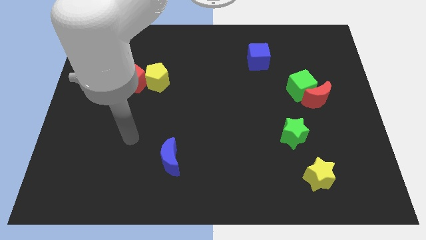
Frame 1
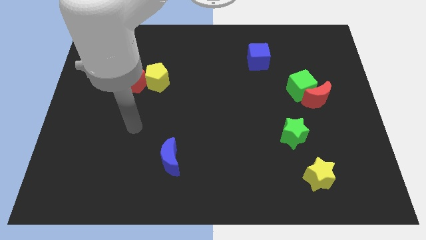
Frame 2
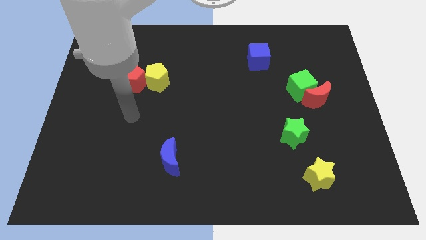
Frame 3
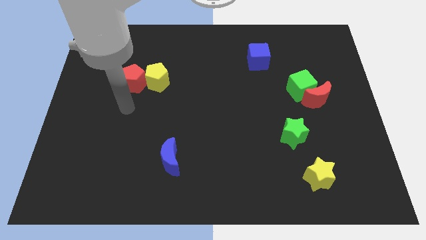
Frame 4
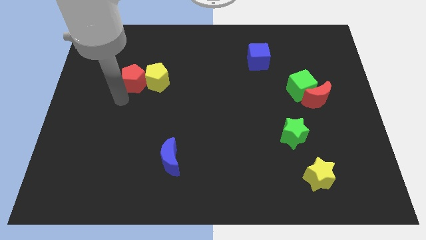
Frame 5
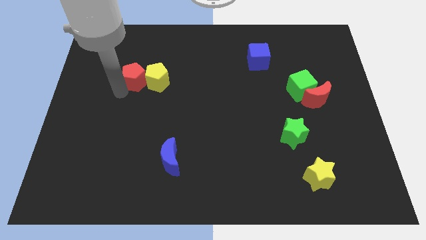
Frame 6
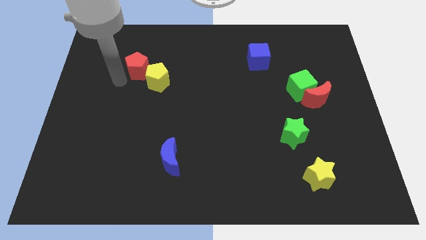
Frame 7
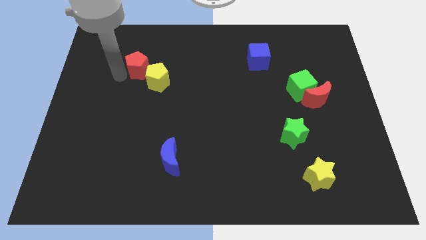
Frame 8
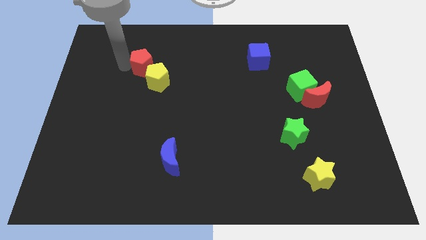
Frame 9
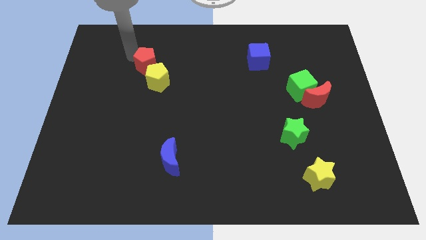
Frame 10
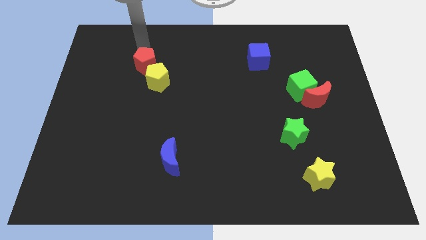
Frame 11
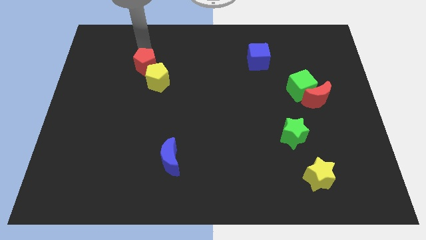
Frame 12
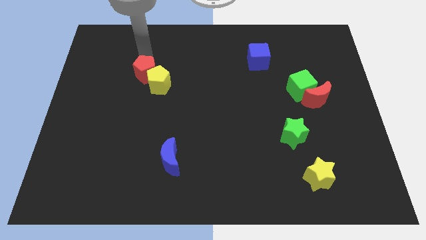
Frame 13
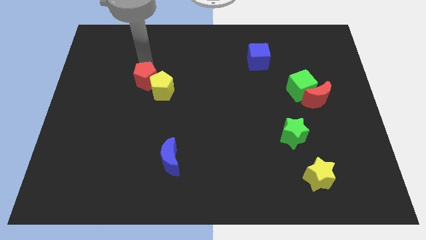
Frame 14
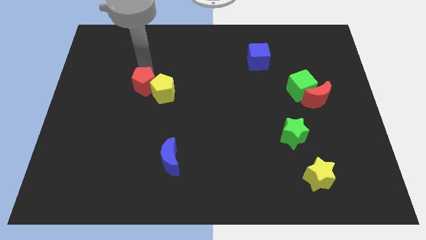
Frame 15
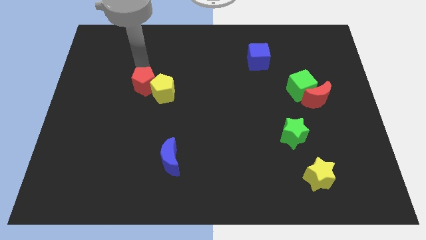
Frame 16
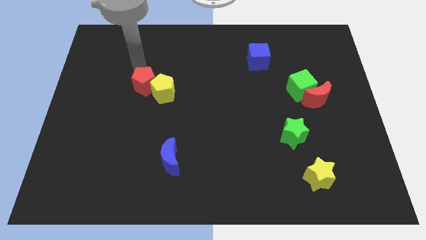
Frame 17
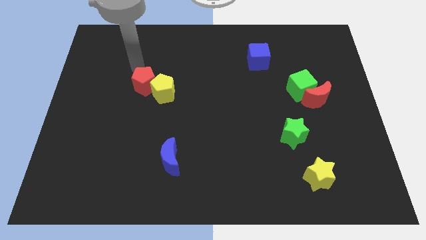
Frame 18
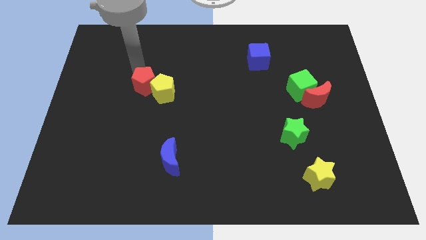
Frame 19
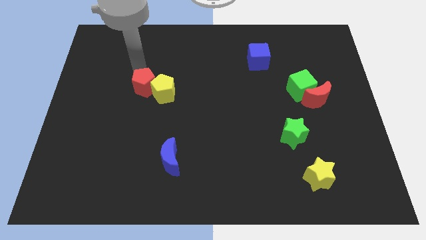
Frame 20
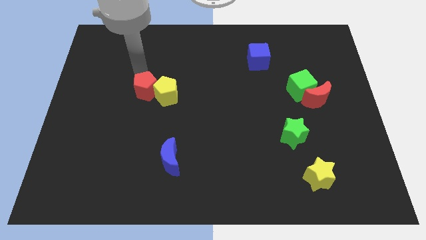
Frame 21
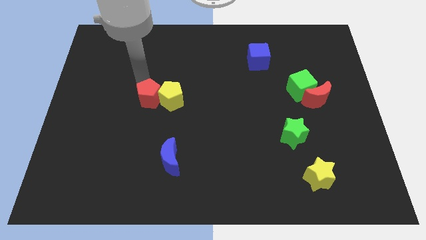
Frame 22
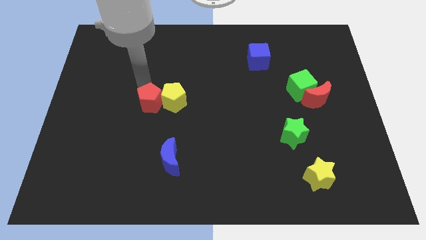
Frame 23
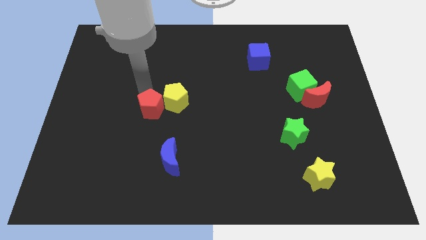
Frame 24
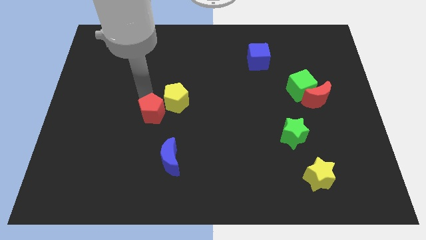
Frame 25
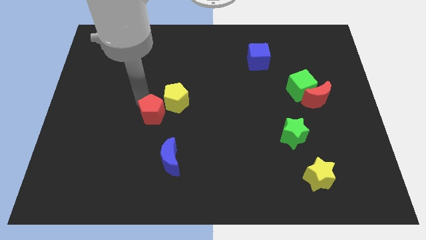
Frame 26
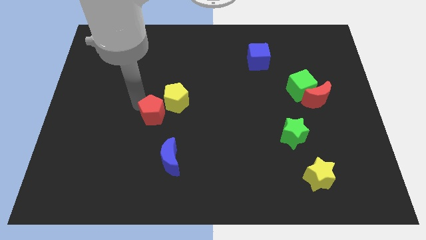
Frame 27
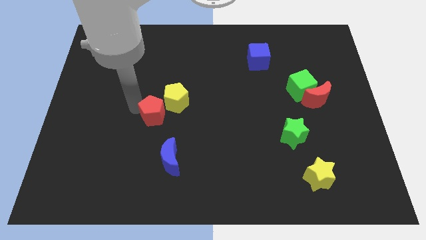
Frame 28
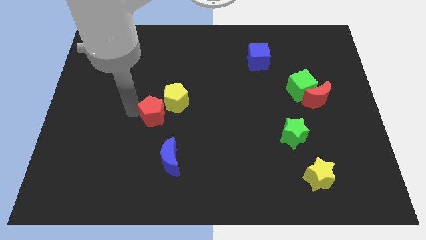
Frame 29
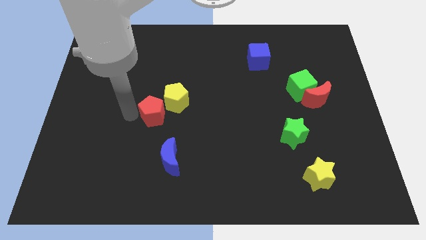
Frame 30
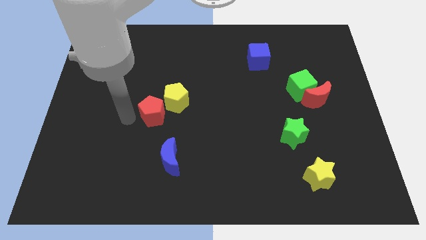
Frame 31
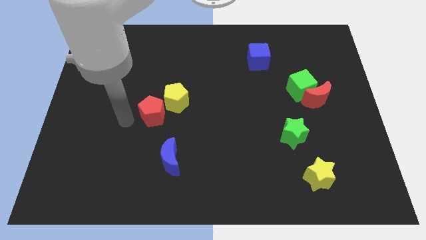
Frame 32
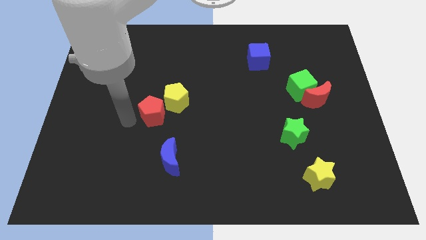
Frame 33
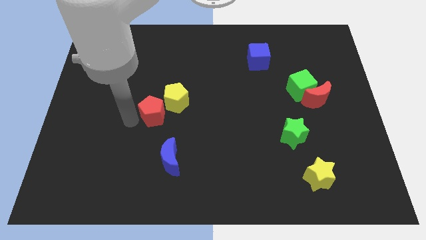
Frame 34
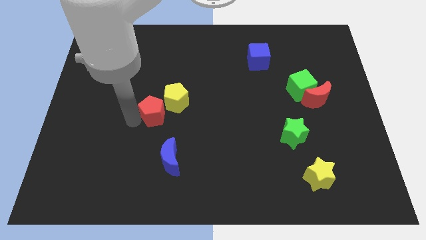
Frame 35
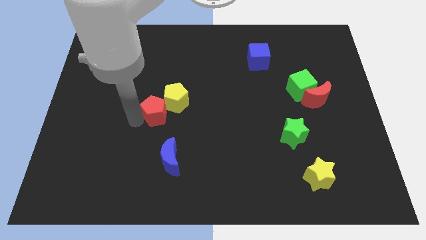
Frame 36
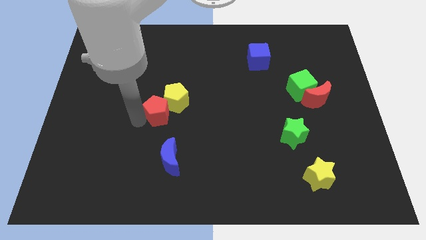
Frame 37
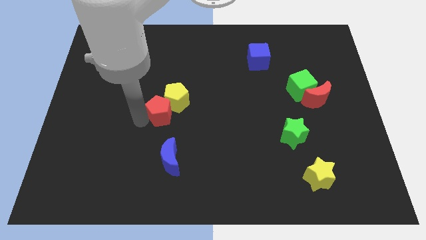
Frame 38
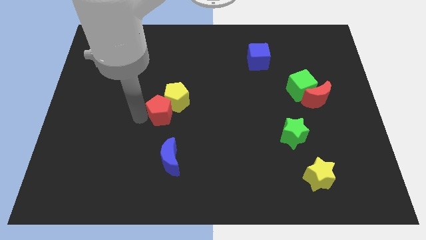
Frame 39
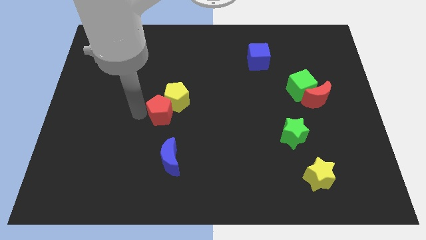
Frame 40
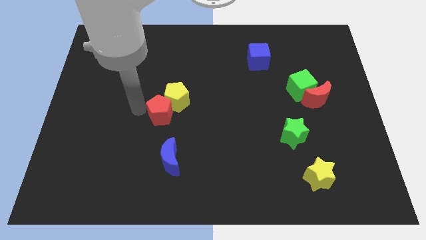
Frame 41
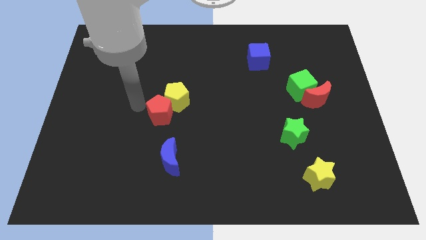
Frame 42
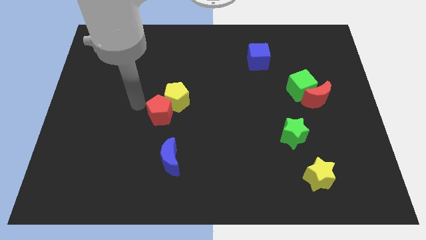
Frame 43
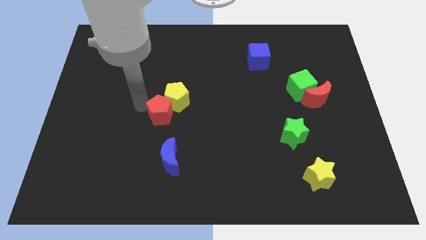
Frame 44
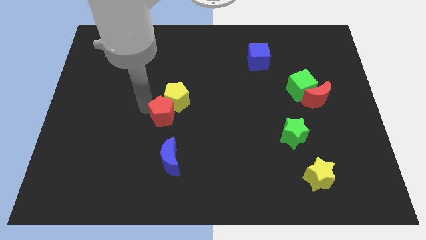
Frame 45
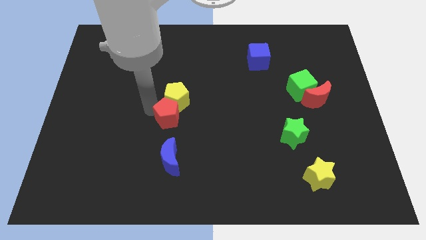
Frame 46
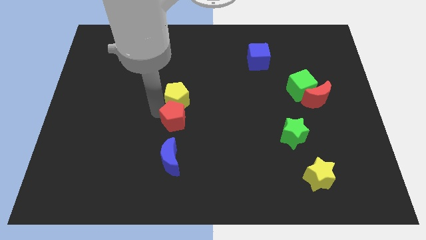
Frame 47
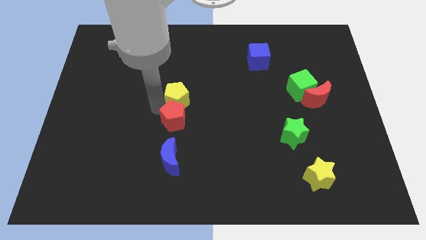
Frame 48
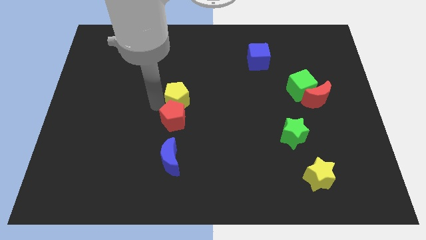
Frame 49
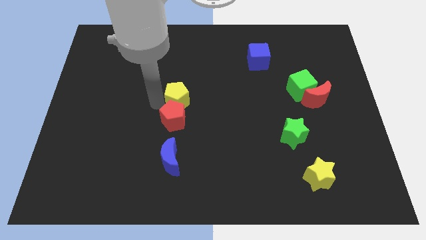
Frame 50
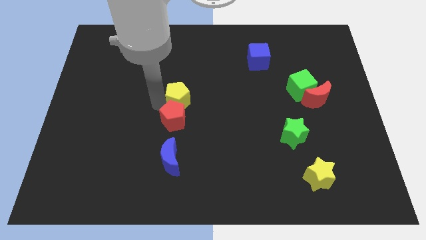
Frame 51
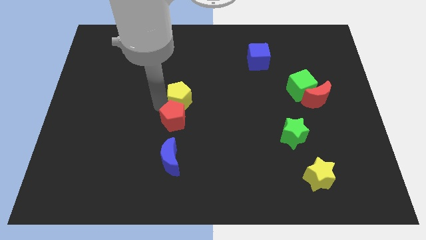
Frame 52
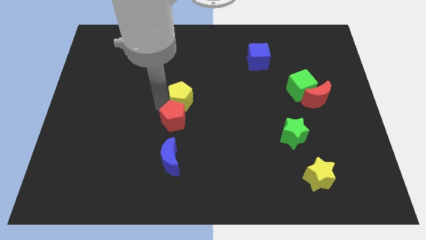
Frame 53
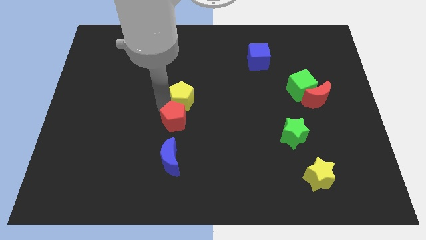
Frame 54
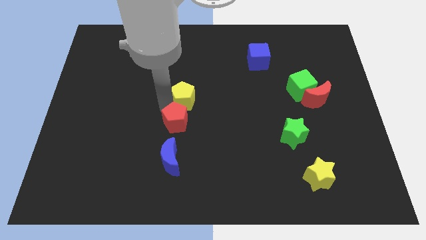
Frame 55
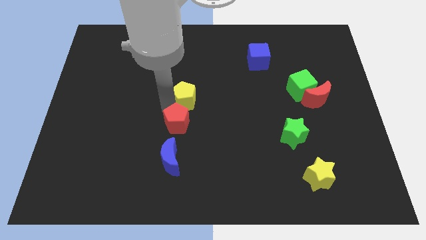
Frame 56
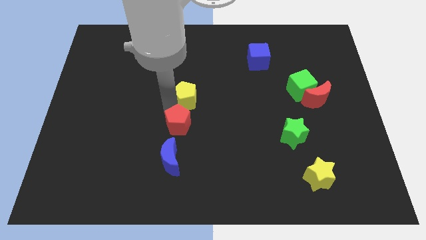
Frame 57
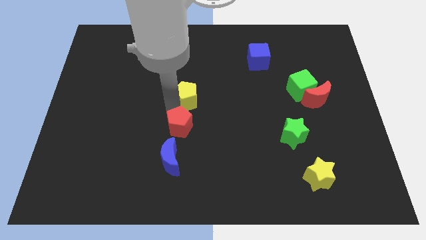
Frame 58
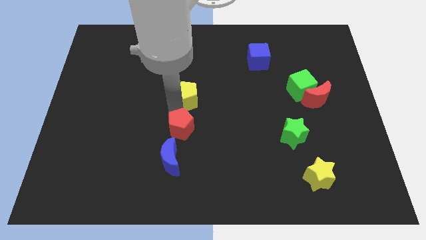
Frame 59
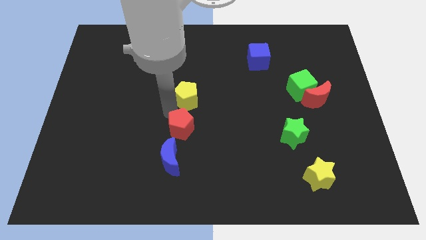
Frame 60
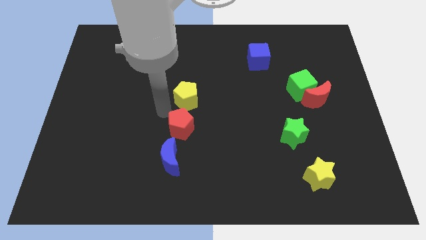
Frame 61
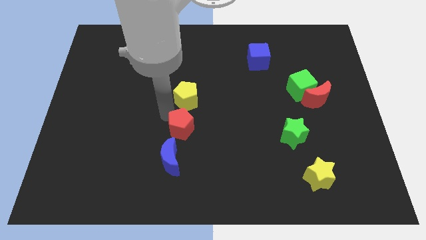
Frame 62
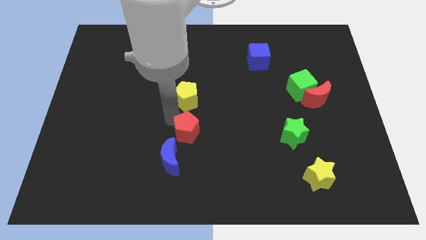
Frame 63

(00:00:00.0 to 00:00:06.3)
move the red pentagon down and right

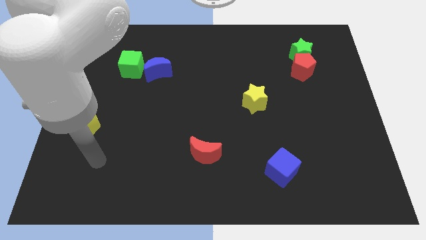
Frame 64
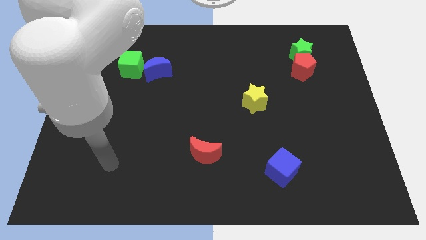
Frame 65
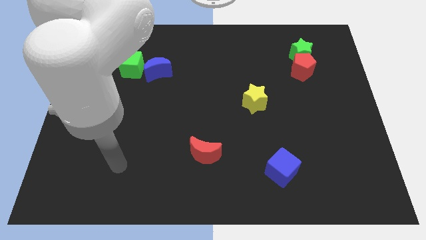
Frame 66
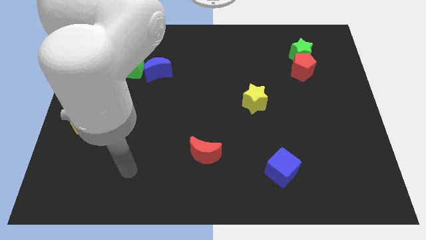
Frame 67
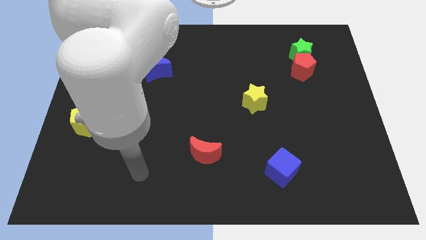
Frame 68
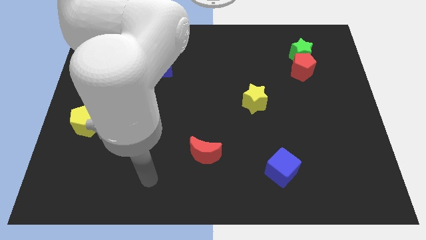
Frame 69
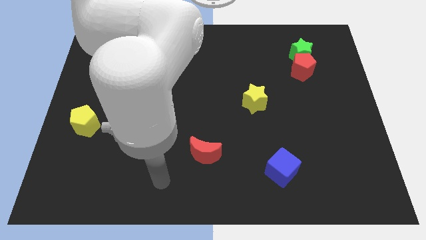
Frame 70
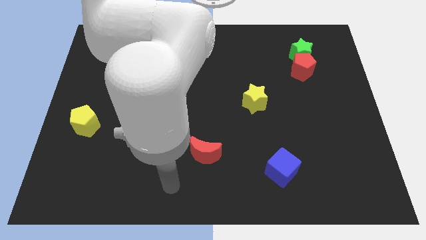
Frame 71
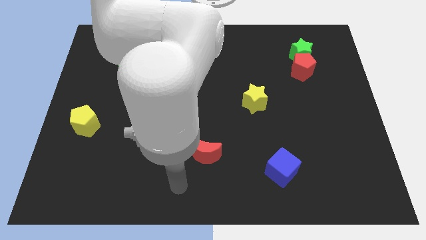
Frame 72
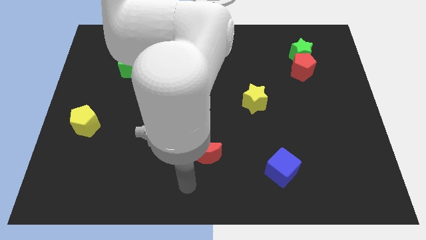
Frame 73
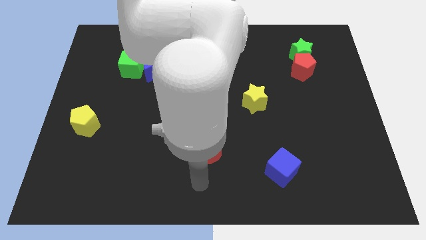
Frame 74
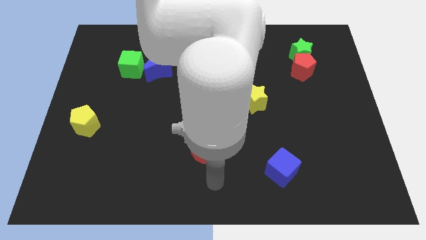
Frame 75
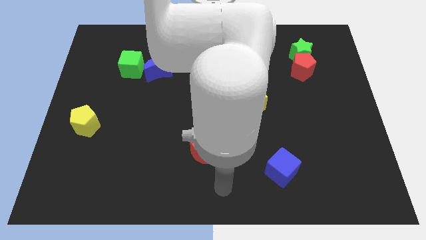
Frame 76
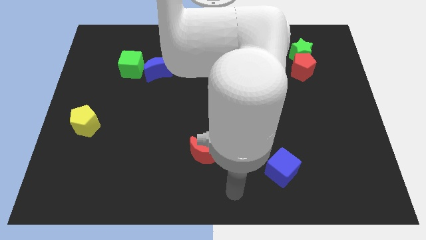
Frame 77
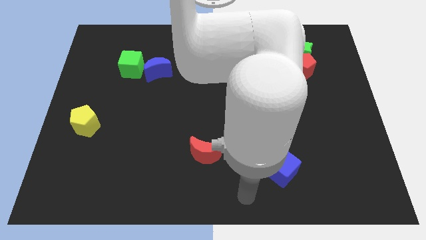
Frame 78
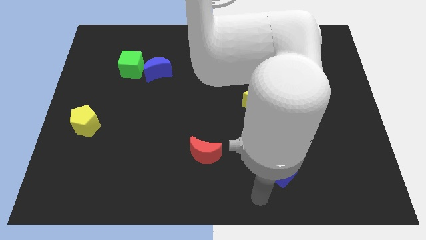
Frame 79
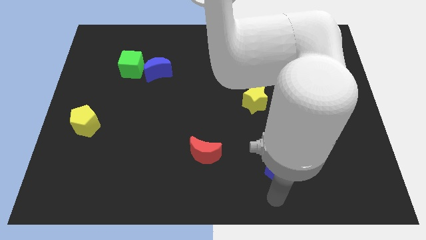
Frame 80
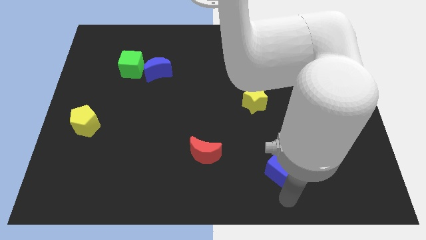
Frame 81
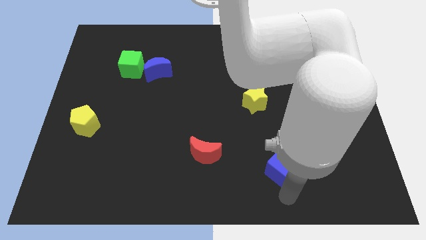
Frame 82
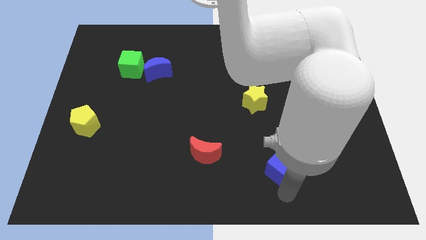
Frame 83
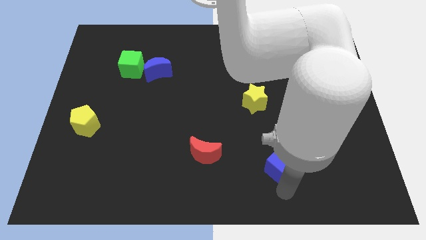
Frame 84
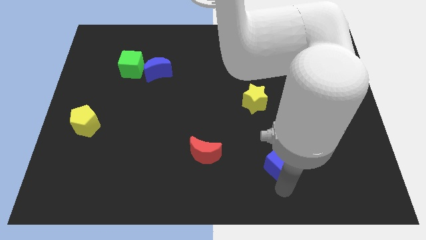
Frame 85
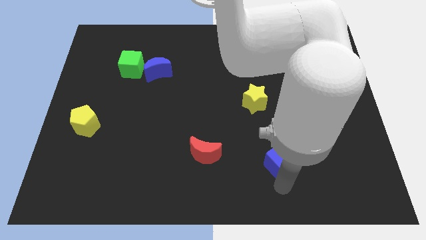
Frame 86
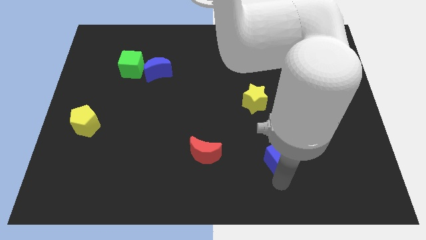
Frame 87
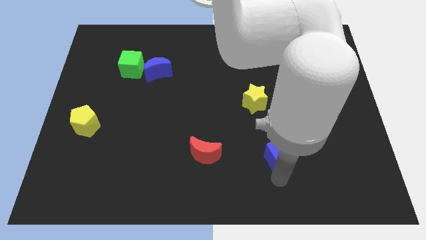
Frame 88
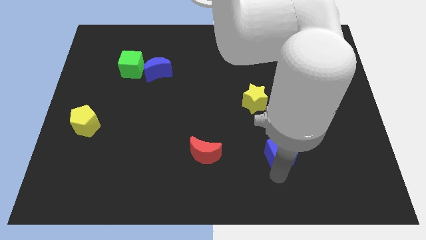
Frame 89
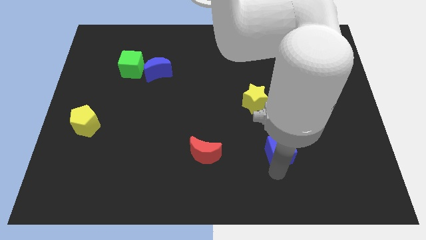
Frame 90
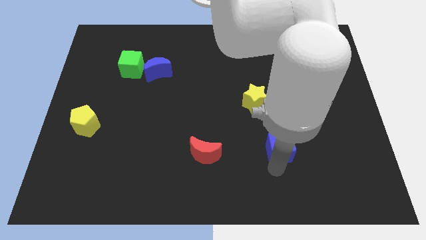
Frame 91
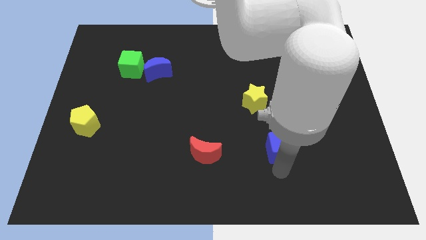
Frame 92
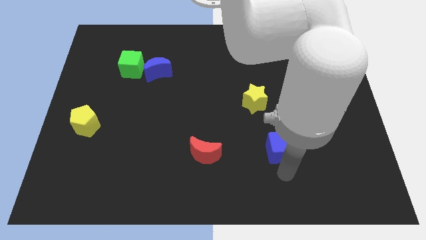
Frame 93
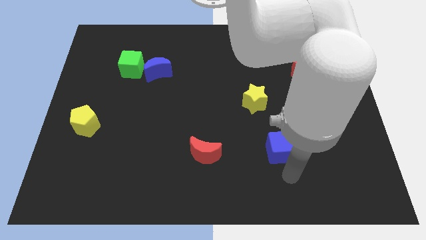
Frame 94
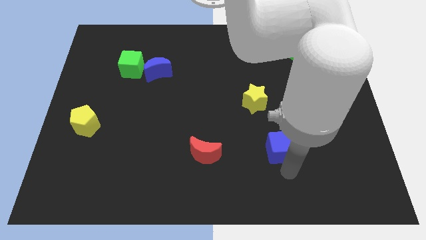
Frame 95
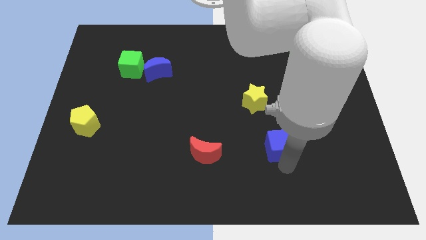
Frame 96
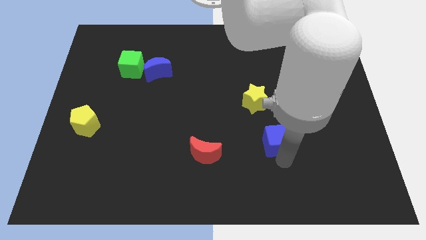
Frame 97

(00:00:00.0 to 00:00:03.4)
move the blue cube upwards somewhat
